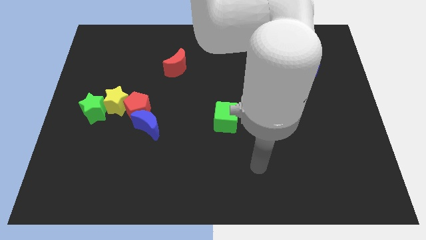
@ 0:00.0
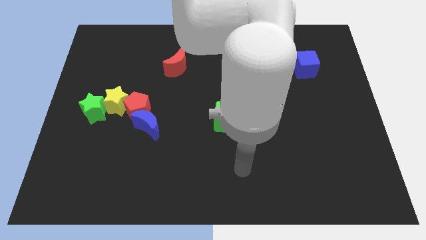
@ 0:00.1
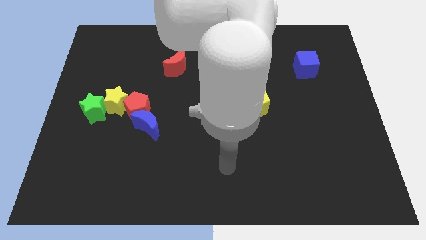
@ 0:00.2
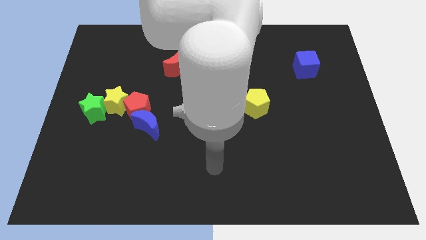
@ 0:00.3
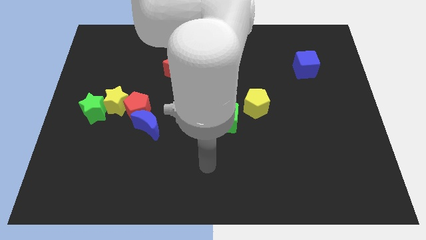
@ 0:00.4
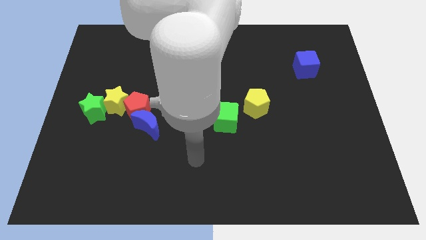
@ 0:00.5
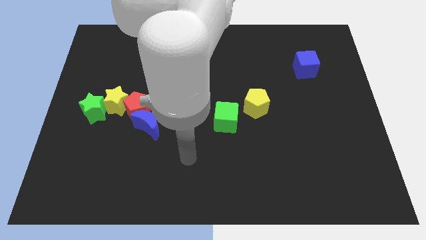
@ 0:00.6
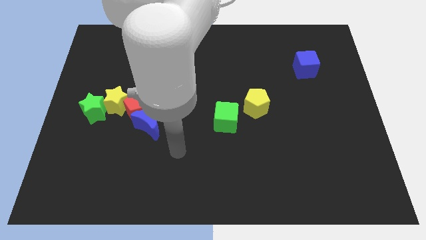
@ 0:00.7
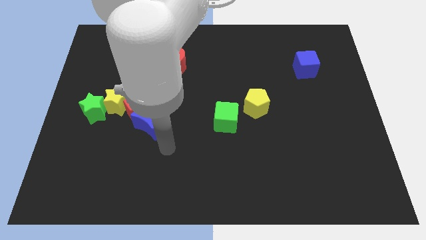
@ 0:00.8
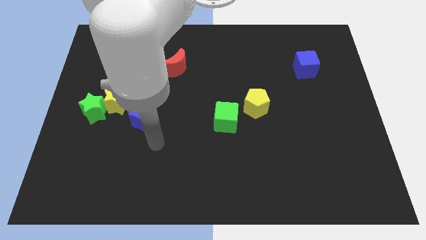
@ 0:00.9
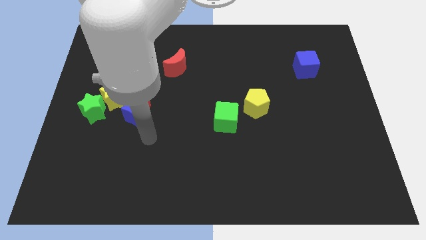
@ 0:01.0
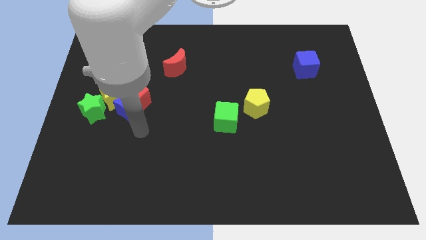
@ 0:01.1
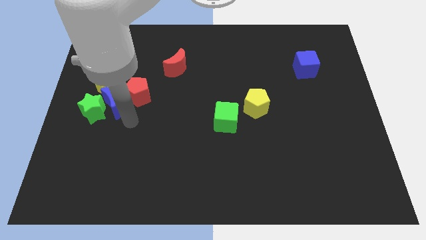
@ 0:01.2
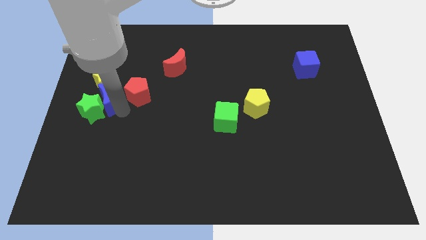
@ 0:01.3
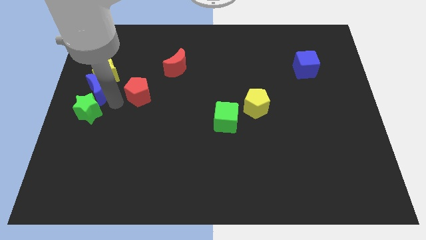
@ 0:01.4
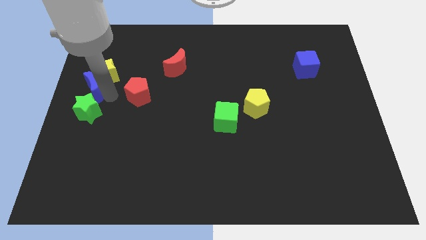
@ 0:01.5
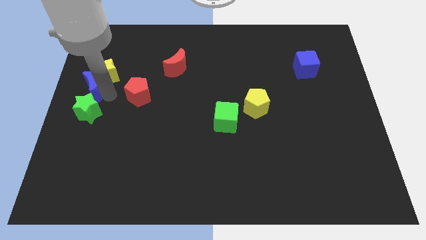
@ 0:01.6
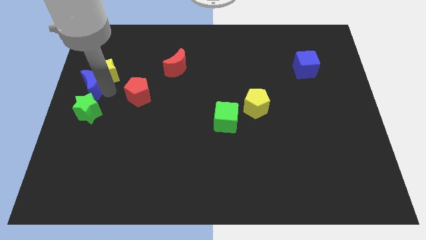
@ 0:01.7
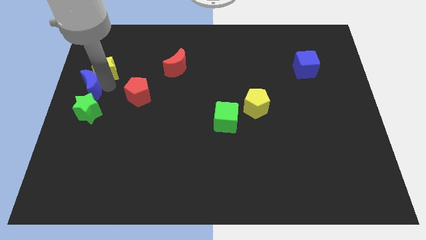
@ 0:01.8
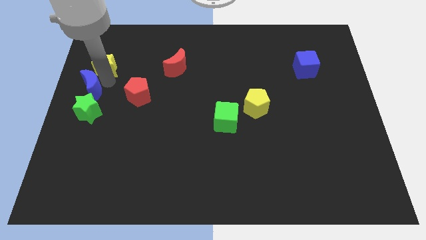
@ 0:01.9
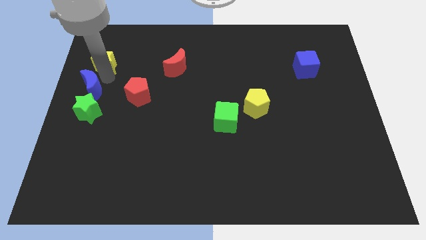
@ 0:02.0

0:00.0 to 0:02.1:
pull the yellow star apart from the clump

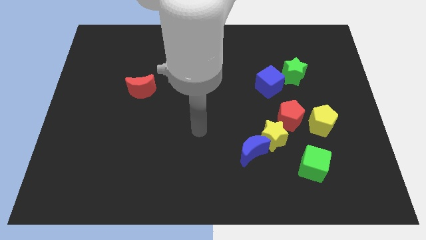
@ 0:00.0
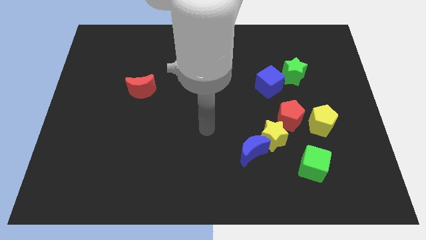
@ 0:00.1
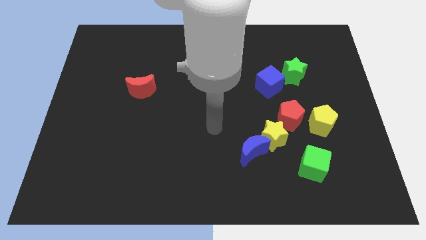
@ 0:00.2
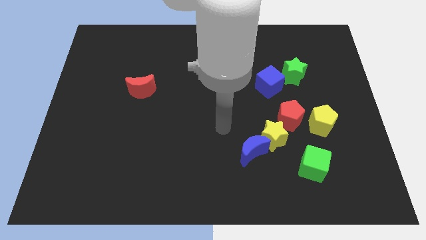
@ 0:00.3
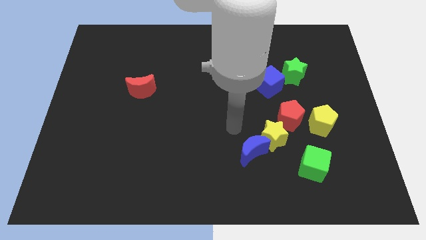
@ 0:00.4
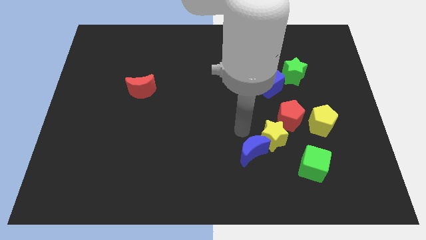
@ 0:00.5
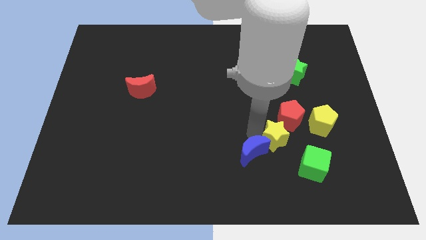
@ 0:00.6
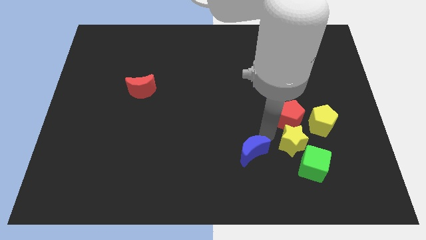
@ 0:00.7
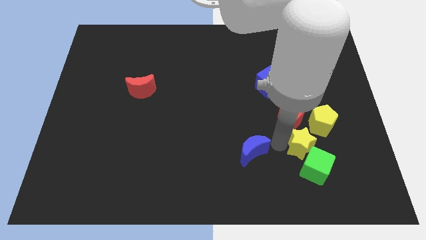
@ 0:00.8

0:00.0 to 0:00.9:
separate the blue moon from the yellow star

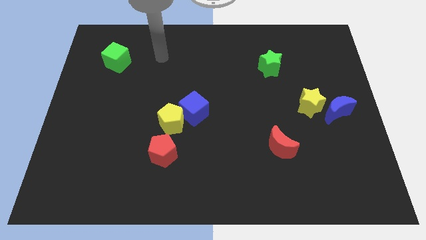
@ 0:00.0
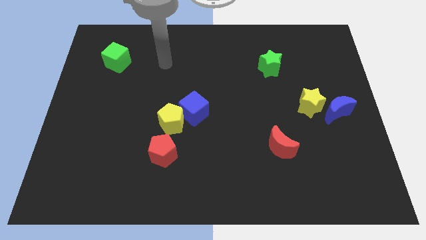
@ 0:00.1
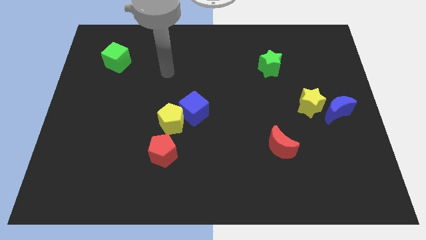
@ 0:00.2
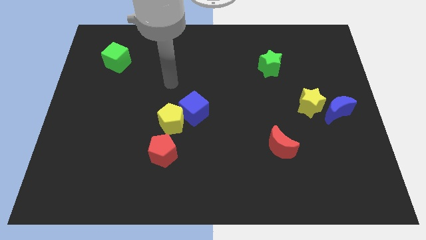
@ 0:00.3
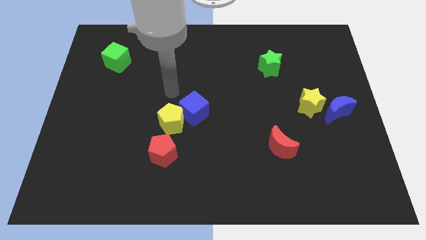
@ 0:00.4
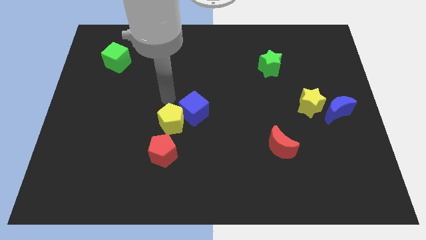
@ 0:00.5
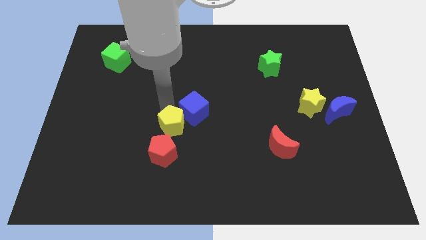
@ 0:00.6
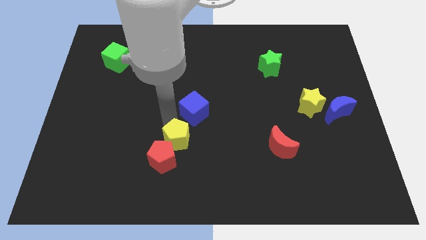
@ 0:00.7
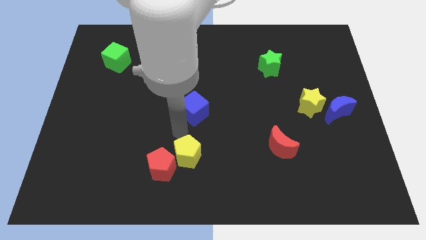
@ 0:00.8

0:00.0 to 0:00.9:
move the blue cube away from the yellow pentagon

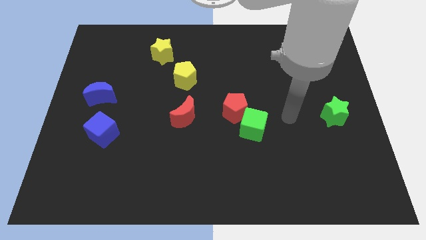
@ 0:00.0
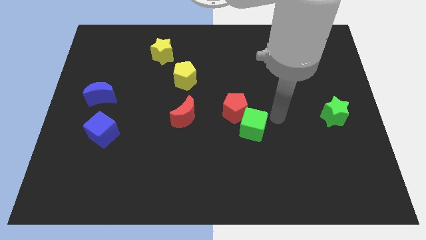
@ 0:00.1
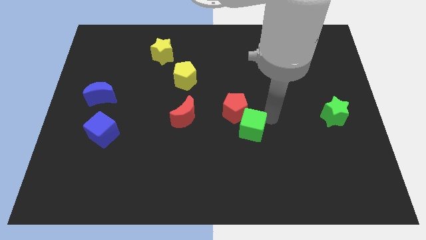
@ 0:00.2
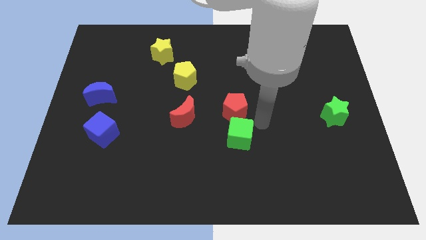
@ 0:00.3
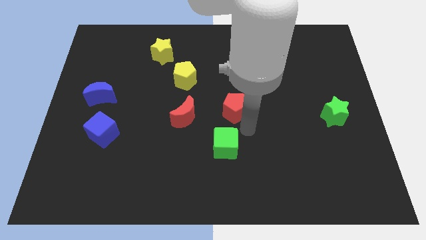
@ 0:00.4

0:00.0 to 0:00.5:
separate the red pentagon from the green cube

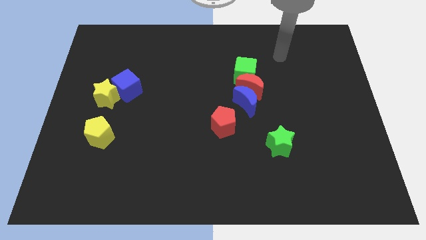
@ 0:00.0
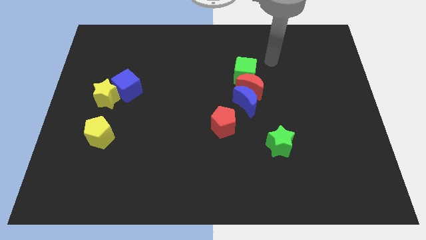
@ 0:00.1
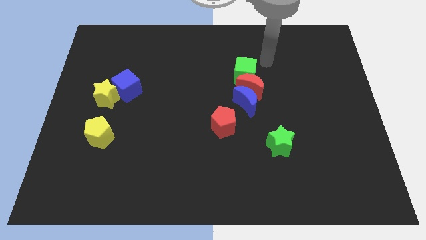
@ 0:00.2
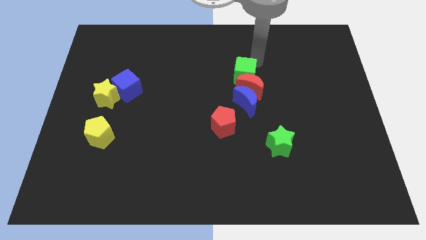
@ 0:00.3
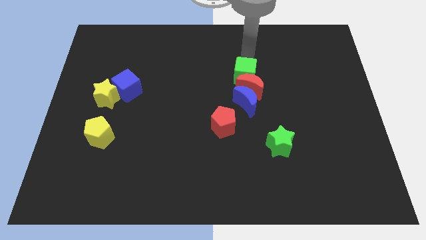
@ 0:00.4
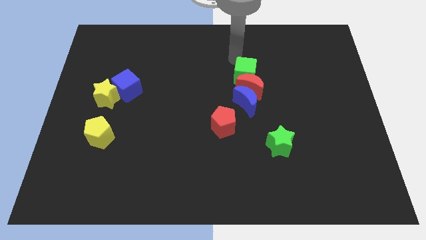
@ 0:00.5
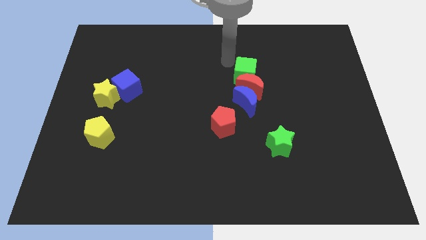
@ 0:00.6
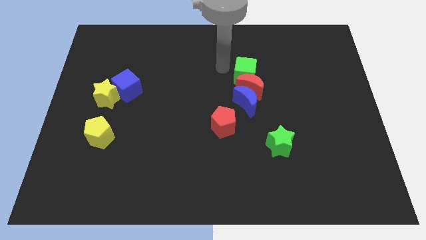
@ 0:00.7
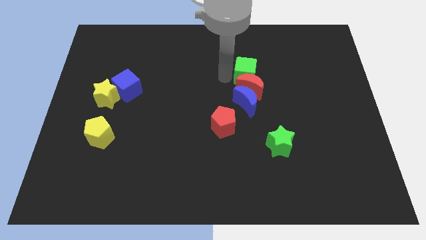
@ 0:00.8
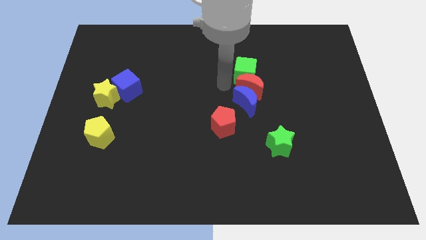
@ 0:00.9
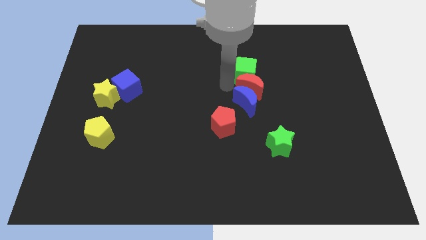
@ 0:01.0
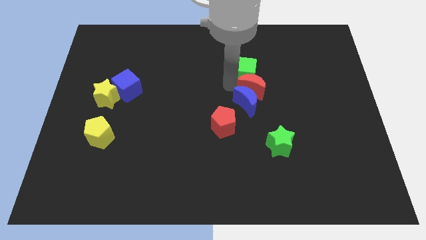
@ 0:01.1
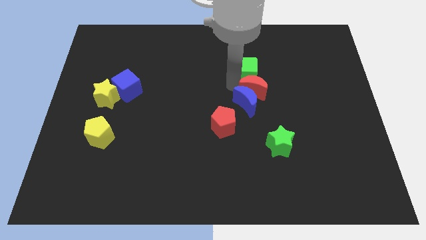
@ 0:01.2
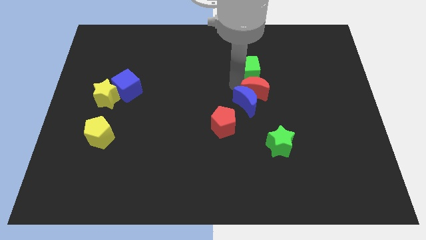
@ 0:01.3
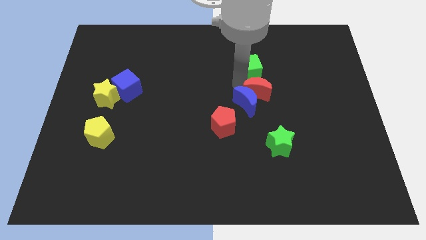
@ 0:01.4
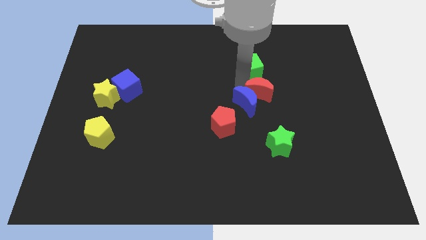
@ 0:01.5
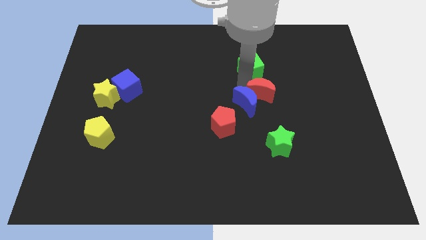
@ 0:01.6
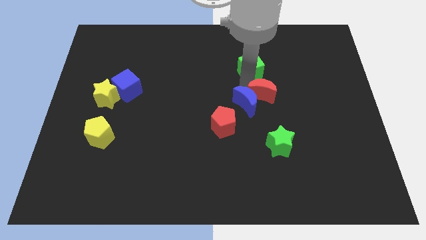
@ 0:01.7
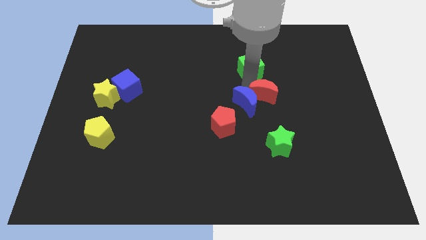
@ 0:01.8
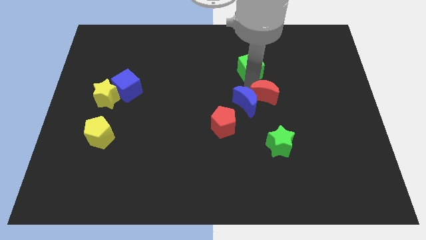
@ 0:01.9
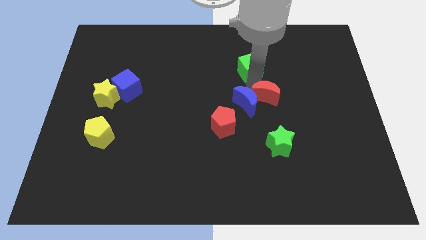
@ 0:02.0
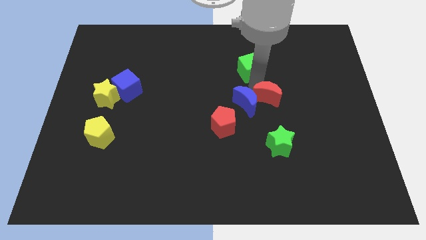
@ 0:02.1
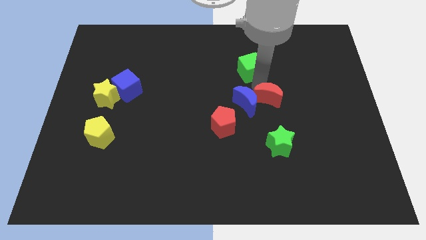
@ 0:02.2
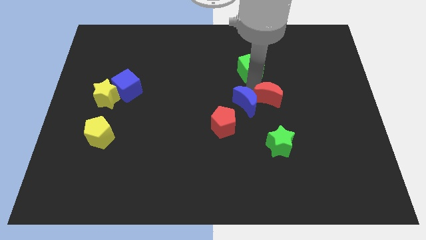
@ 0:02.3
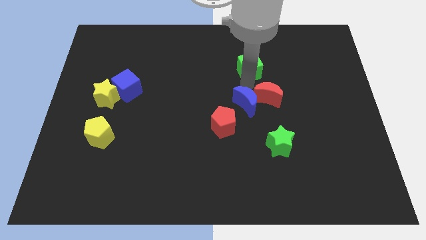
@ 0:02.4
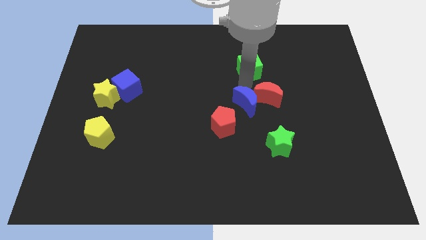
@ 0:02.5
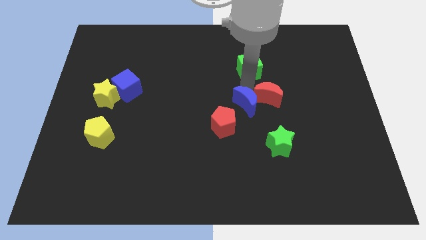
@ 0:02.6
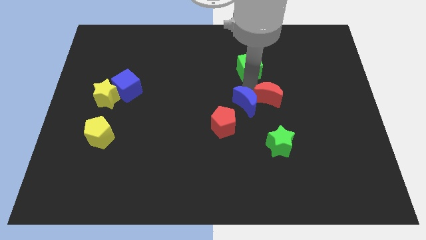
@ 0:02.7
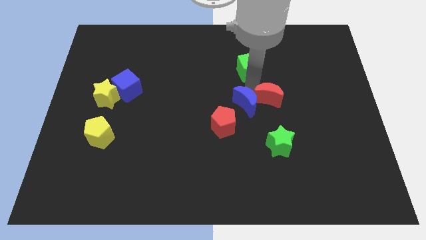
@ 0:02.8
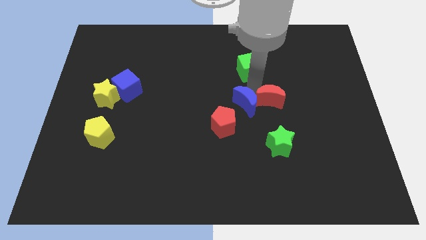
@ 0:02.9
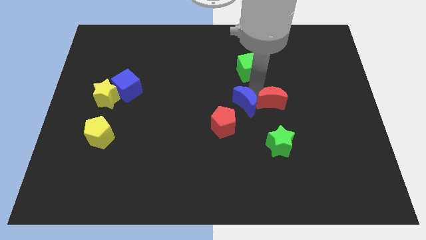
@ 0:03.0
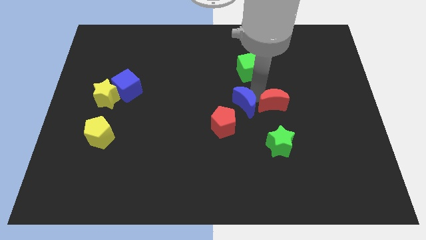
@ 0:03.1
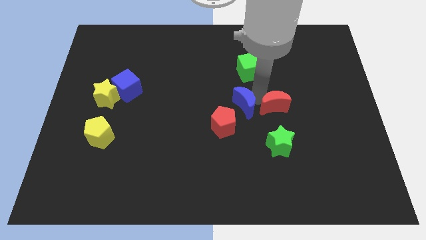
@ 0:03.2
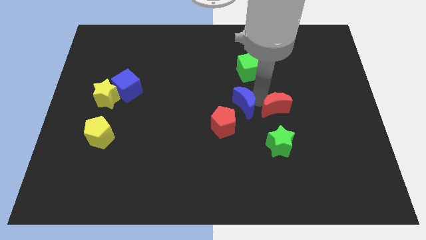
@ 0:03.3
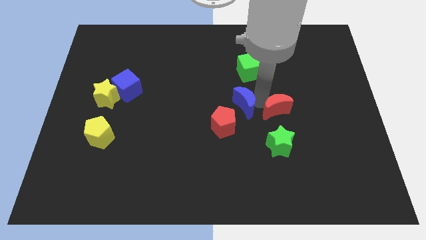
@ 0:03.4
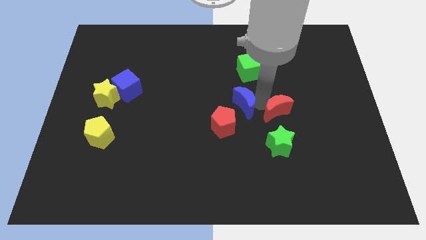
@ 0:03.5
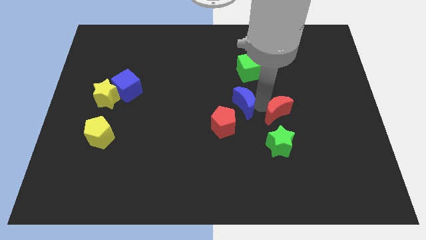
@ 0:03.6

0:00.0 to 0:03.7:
move the red moon away from the blue moon and green cube

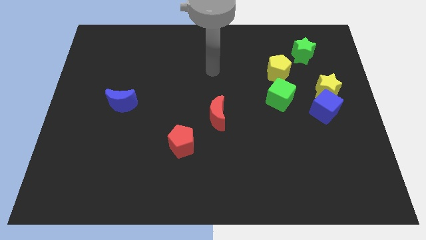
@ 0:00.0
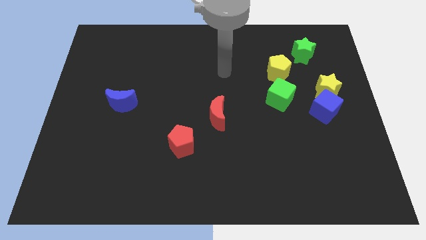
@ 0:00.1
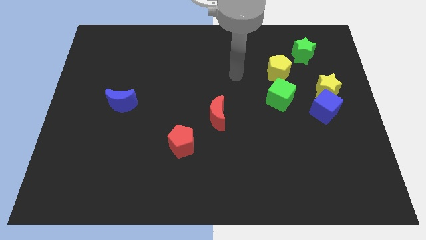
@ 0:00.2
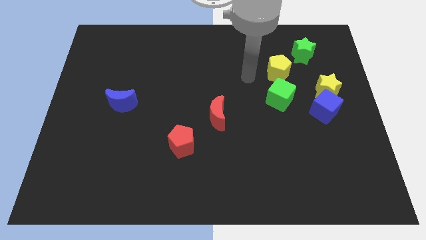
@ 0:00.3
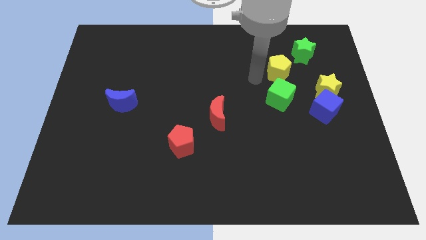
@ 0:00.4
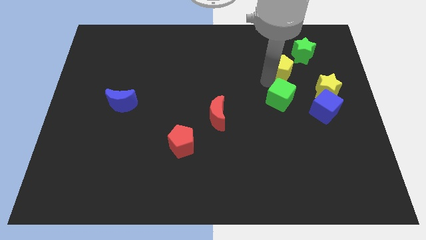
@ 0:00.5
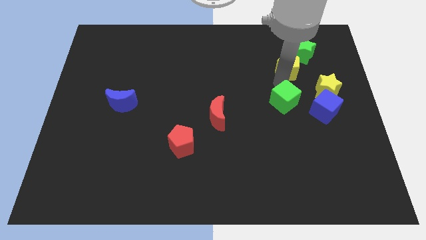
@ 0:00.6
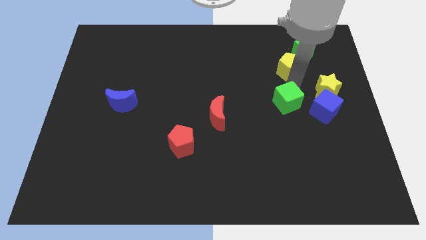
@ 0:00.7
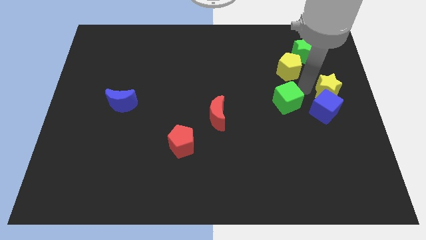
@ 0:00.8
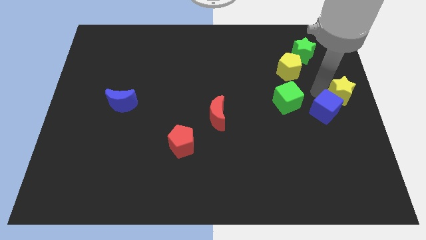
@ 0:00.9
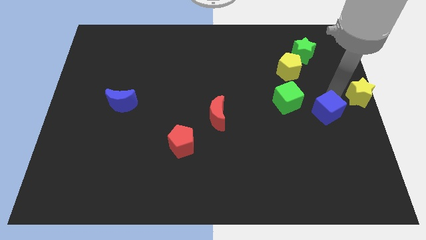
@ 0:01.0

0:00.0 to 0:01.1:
pull the blue cube apart from the yellow star
